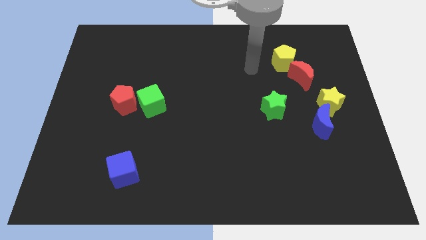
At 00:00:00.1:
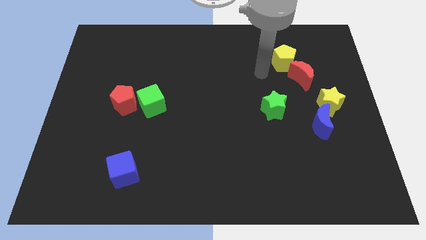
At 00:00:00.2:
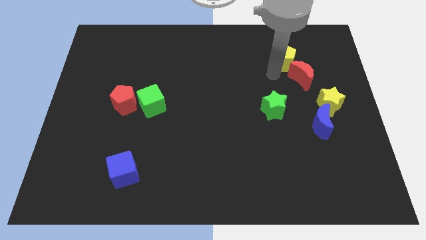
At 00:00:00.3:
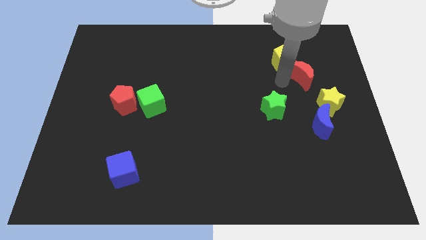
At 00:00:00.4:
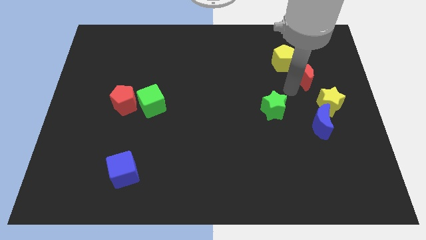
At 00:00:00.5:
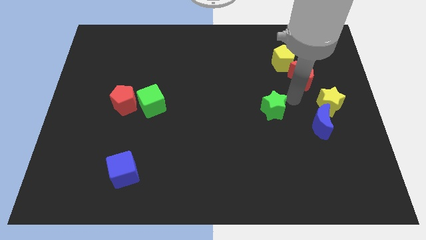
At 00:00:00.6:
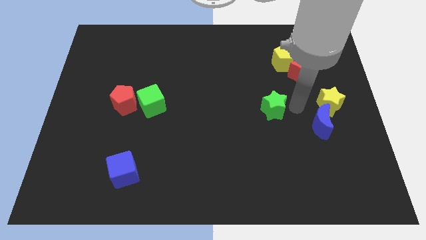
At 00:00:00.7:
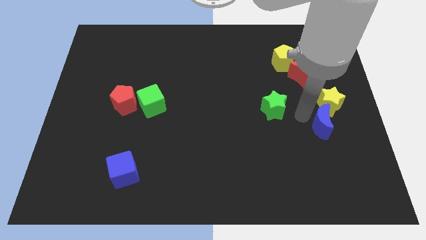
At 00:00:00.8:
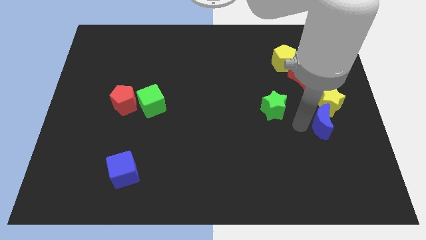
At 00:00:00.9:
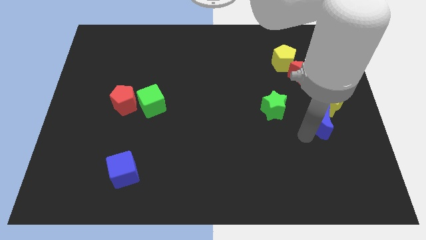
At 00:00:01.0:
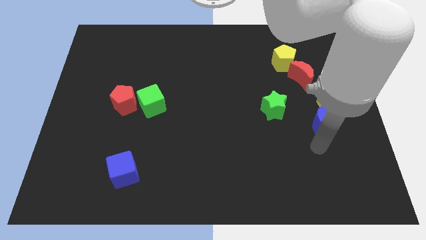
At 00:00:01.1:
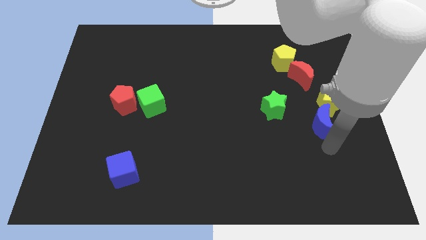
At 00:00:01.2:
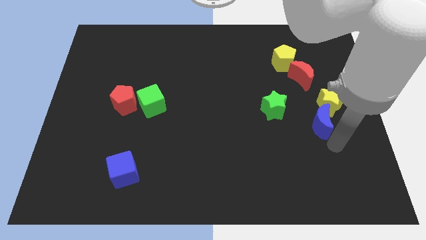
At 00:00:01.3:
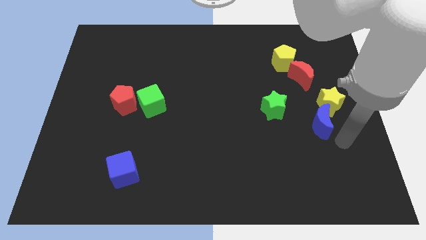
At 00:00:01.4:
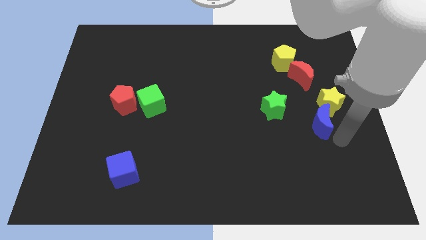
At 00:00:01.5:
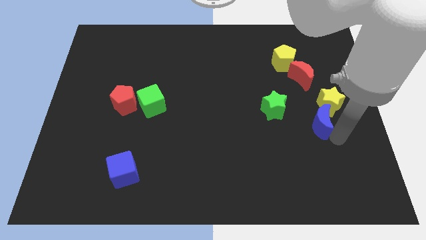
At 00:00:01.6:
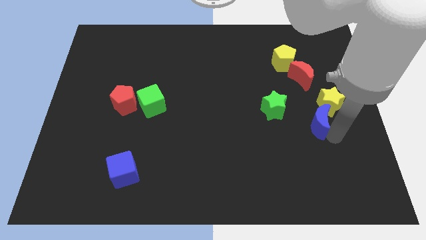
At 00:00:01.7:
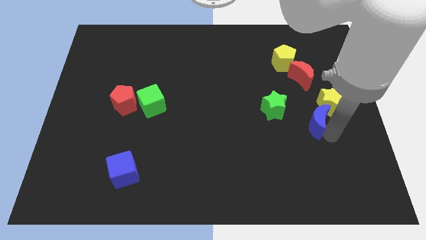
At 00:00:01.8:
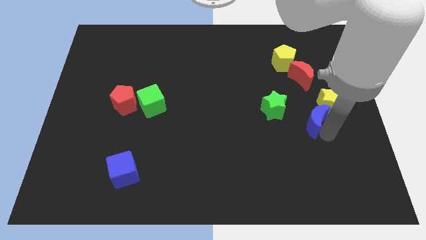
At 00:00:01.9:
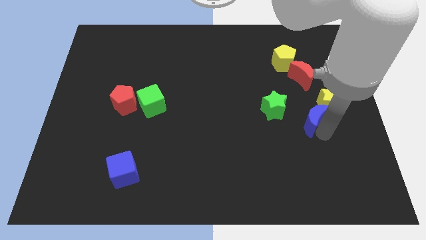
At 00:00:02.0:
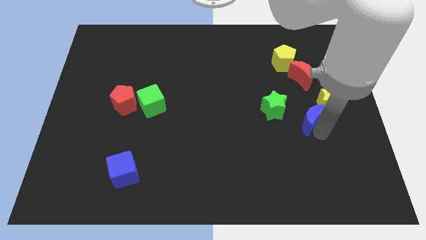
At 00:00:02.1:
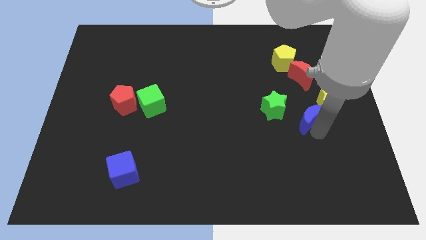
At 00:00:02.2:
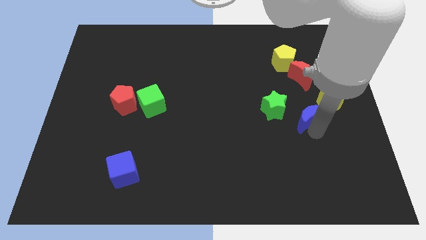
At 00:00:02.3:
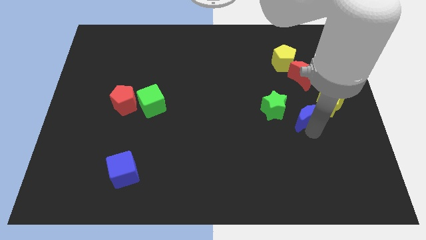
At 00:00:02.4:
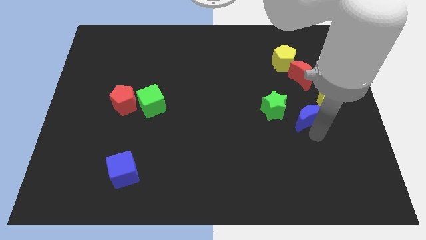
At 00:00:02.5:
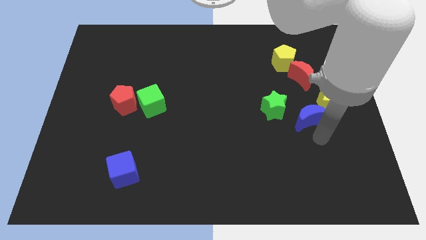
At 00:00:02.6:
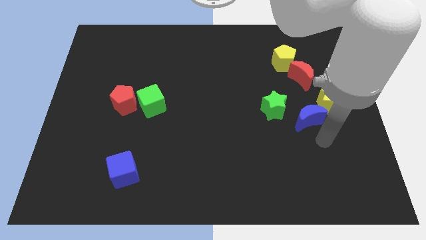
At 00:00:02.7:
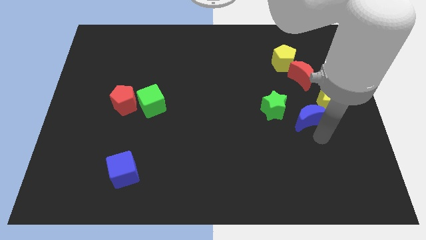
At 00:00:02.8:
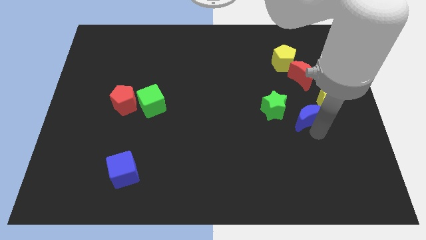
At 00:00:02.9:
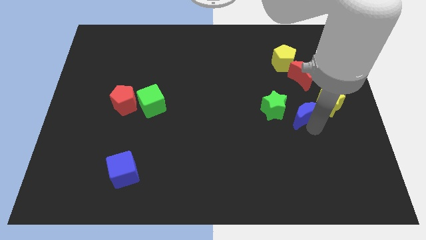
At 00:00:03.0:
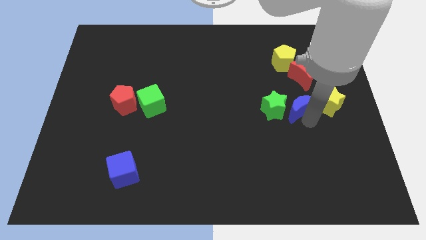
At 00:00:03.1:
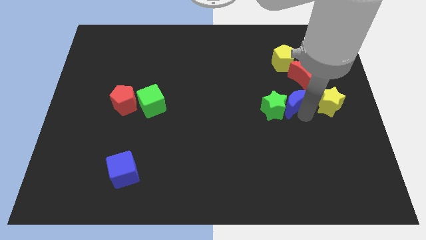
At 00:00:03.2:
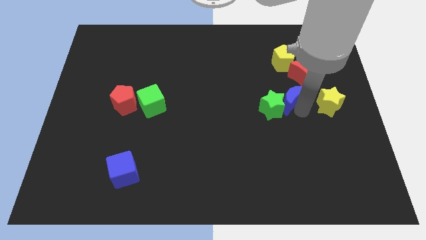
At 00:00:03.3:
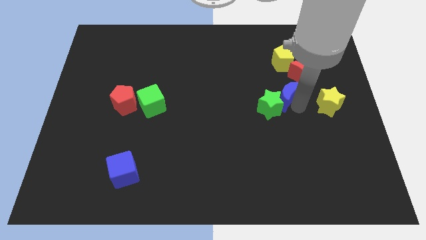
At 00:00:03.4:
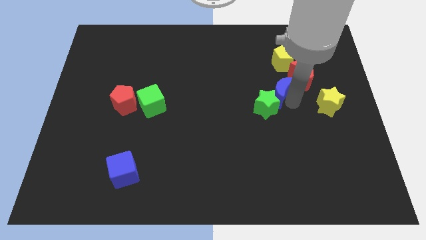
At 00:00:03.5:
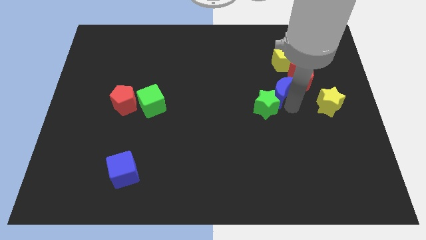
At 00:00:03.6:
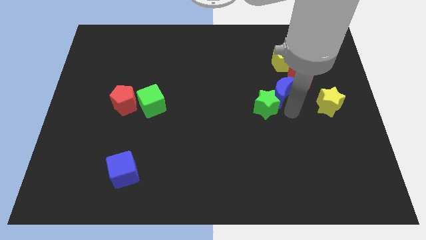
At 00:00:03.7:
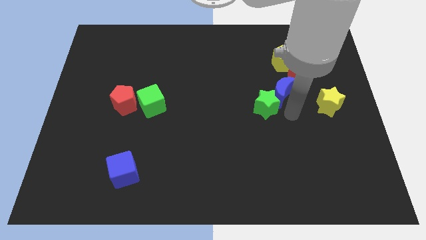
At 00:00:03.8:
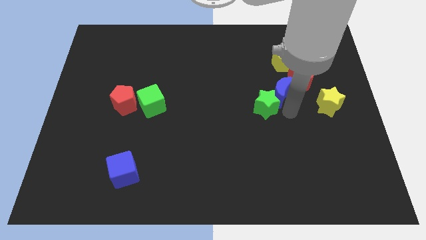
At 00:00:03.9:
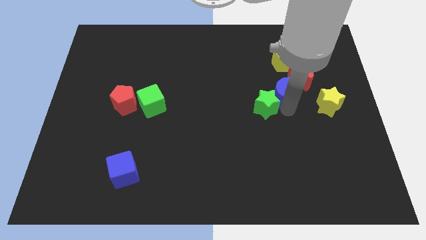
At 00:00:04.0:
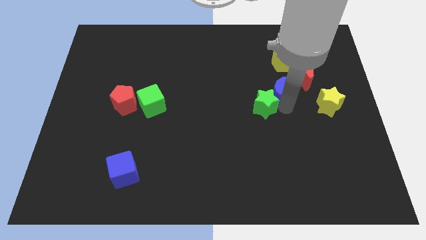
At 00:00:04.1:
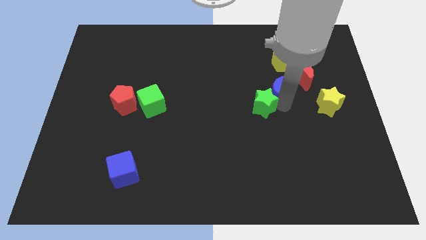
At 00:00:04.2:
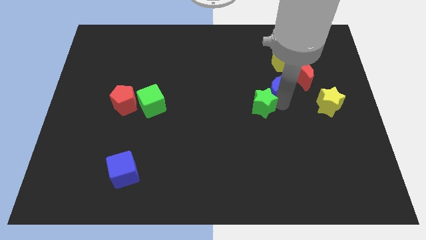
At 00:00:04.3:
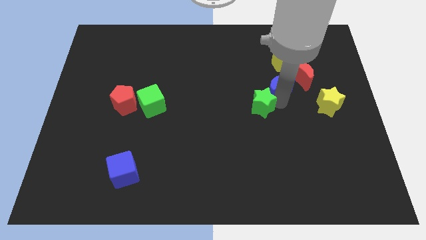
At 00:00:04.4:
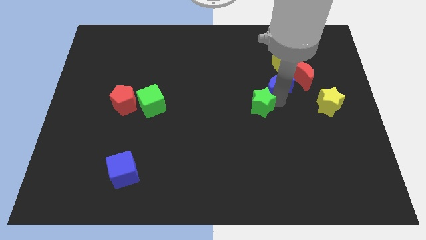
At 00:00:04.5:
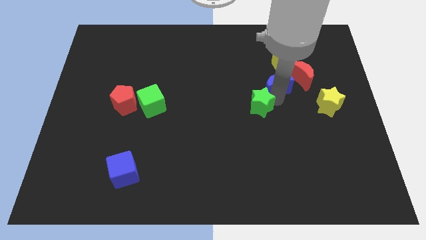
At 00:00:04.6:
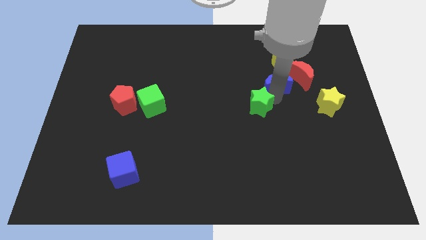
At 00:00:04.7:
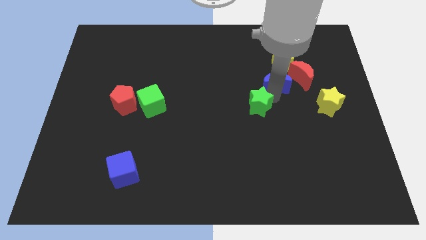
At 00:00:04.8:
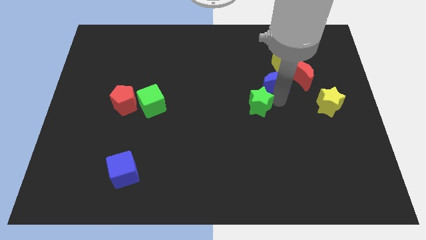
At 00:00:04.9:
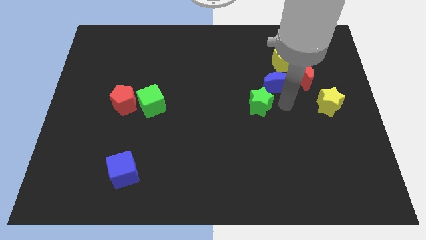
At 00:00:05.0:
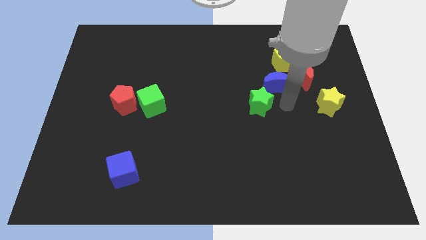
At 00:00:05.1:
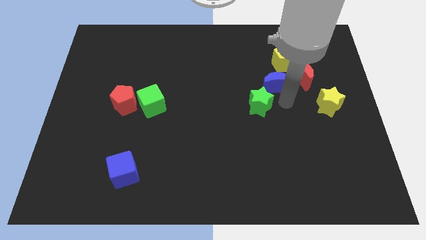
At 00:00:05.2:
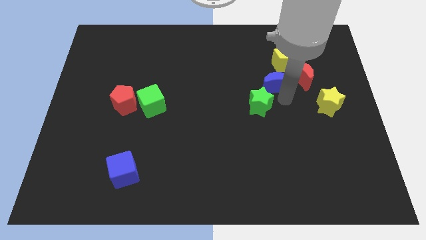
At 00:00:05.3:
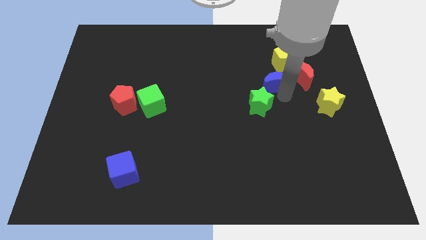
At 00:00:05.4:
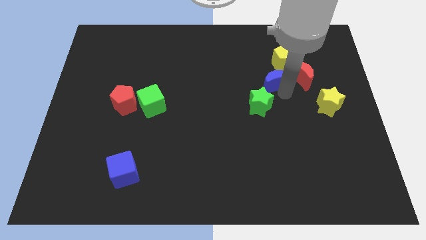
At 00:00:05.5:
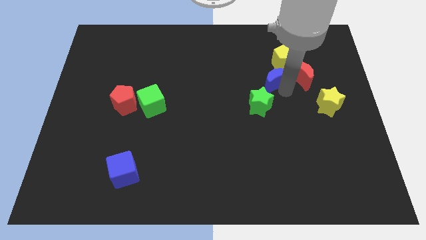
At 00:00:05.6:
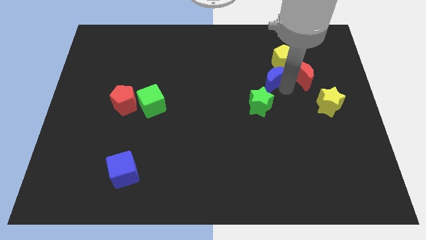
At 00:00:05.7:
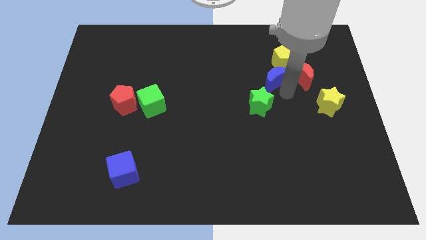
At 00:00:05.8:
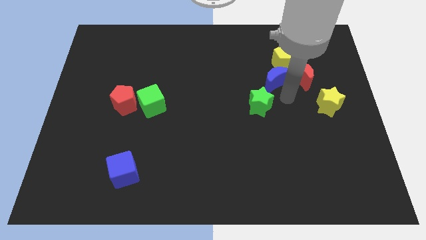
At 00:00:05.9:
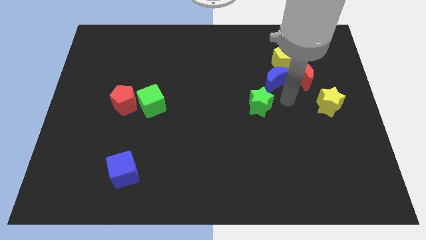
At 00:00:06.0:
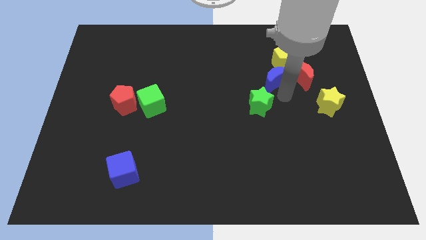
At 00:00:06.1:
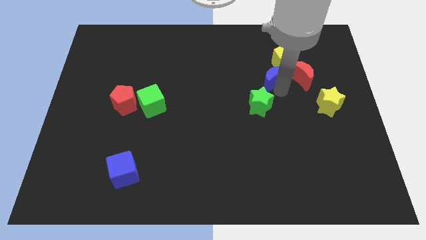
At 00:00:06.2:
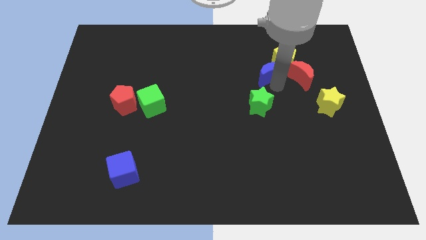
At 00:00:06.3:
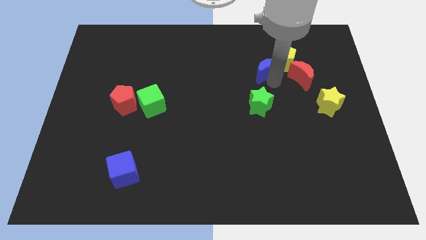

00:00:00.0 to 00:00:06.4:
put the blue moon to the top left side of the red moon
